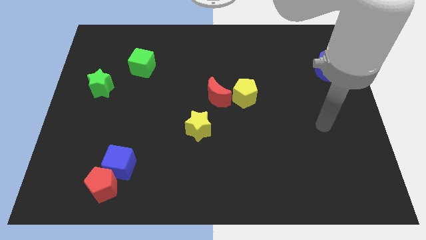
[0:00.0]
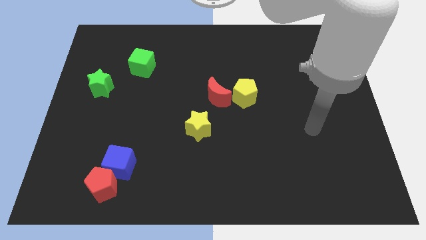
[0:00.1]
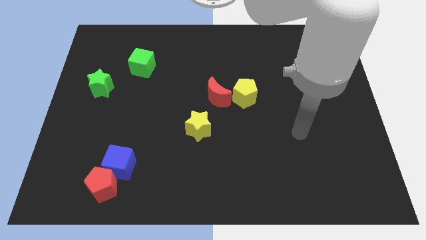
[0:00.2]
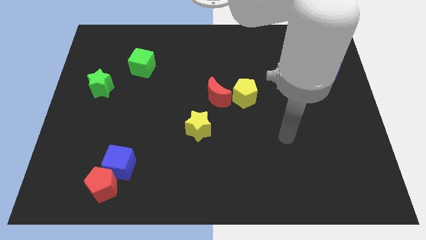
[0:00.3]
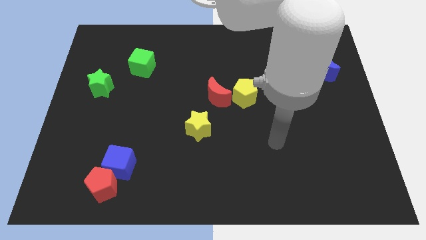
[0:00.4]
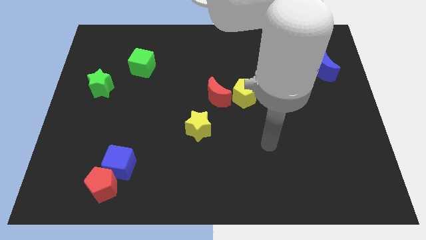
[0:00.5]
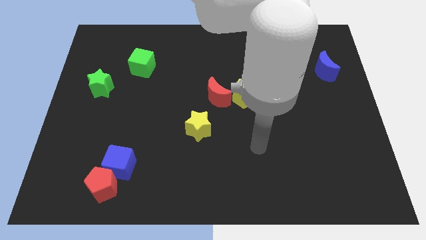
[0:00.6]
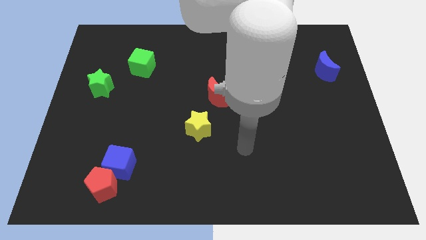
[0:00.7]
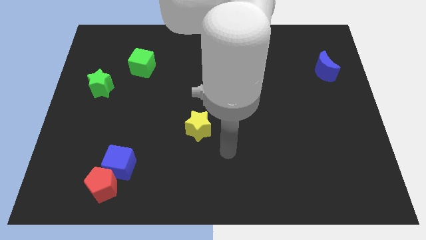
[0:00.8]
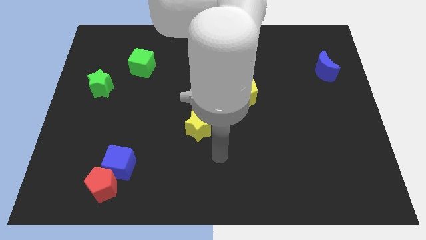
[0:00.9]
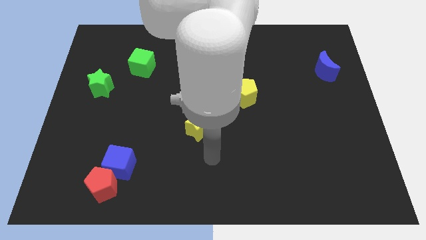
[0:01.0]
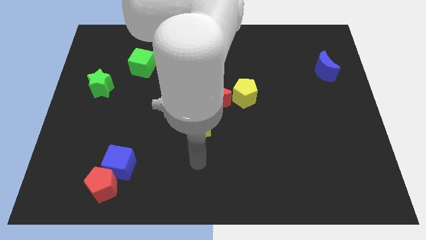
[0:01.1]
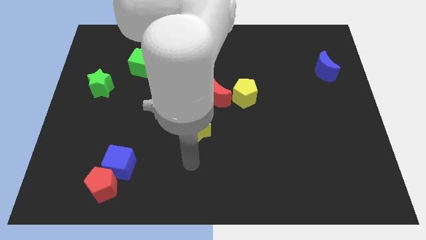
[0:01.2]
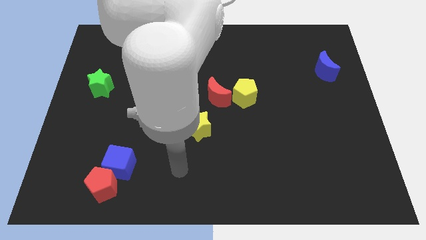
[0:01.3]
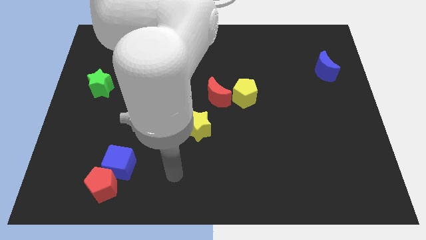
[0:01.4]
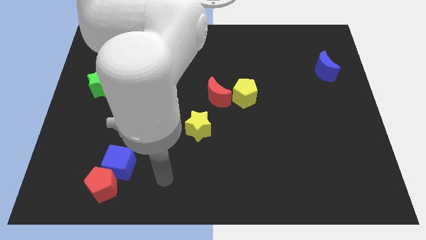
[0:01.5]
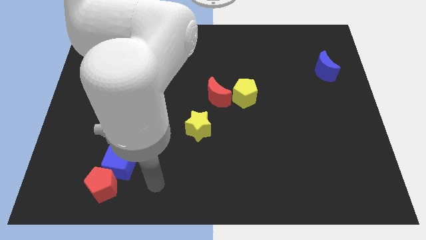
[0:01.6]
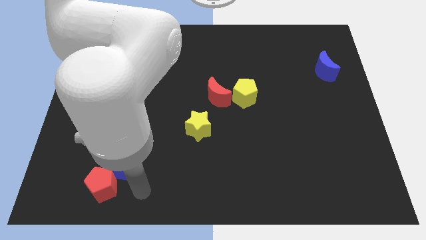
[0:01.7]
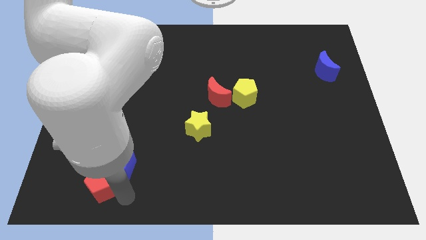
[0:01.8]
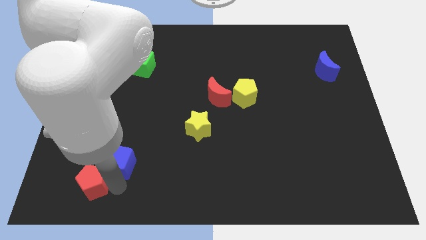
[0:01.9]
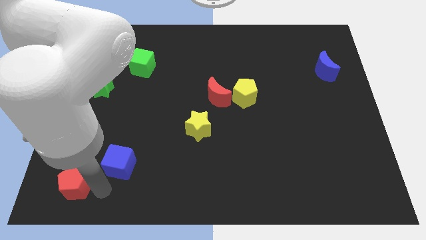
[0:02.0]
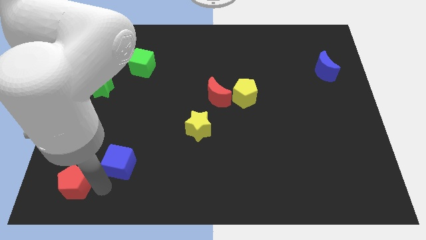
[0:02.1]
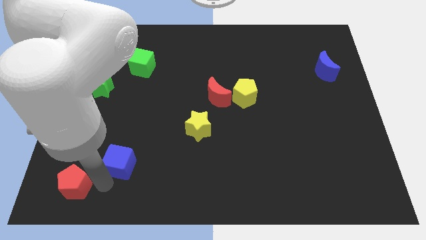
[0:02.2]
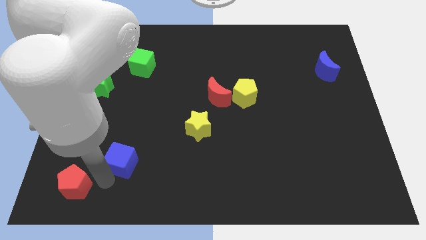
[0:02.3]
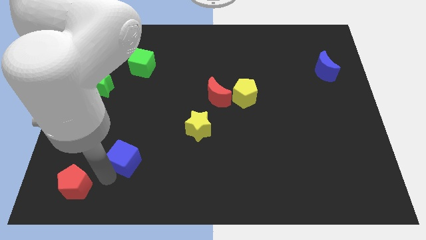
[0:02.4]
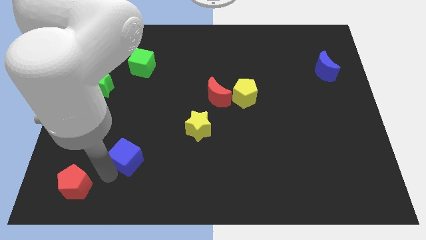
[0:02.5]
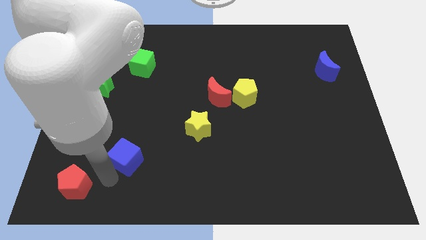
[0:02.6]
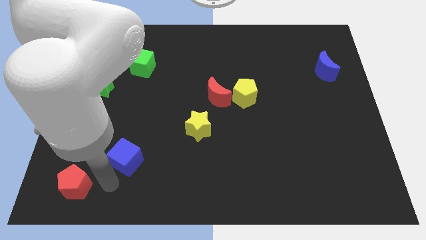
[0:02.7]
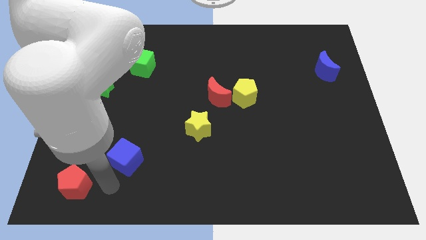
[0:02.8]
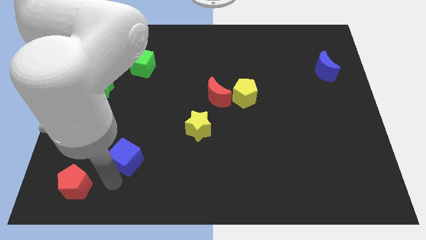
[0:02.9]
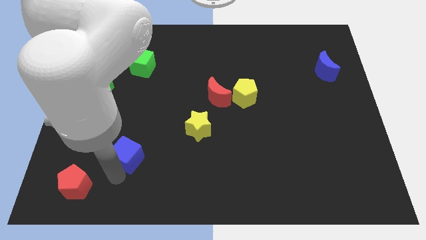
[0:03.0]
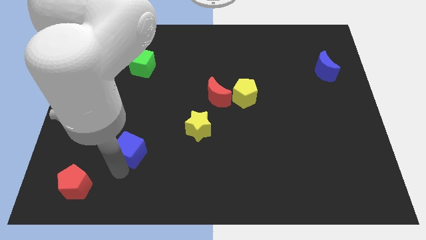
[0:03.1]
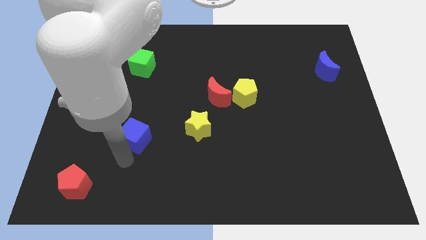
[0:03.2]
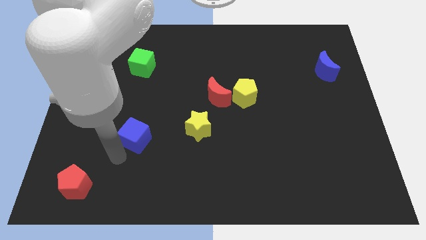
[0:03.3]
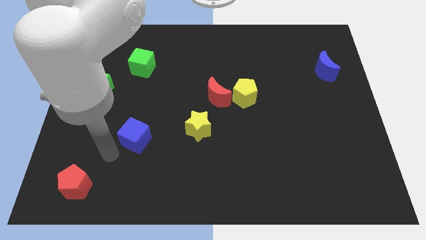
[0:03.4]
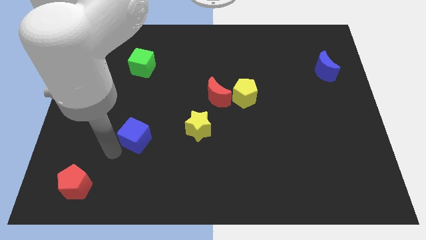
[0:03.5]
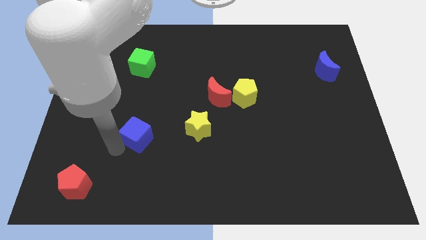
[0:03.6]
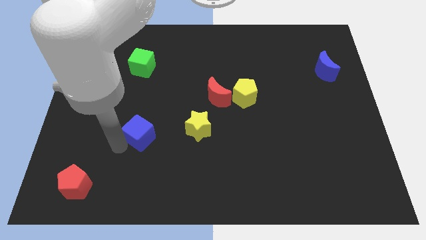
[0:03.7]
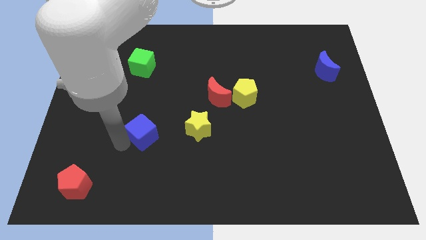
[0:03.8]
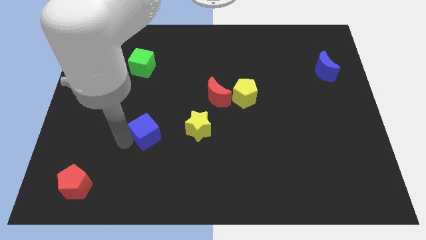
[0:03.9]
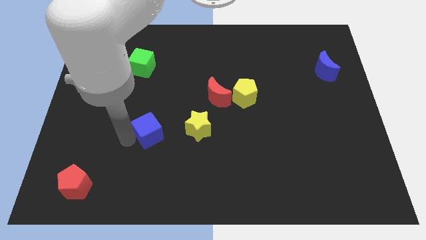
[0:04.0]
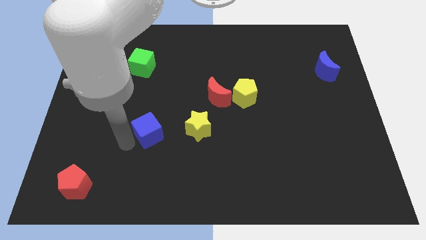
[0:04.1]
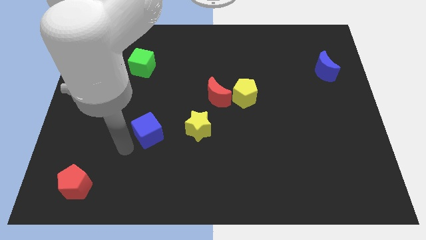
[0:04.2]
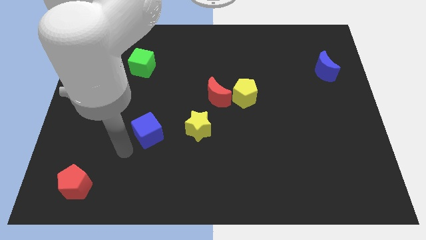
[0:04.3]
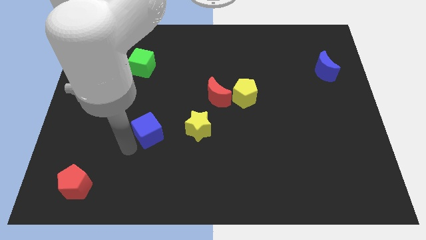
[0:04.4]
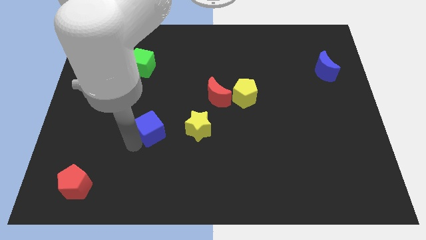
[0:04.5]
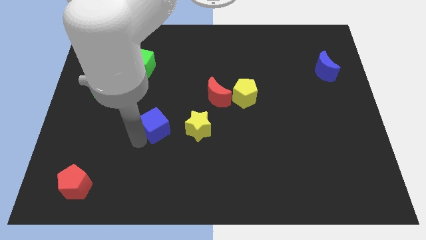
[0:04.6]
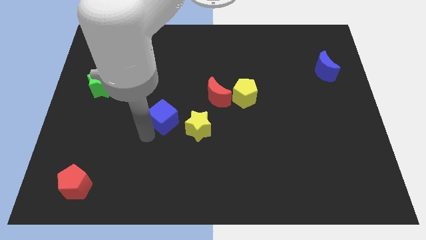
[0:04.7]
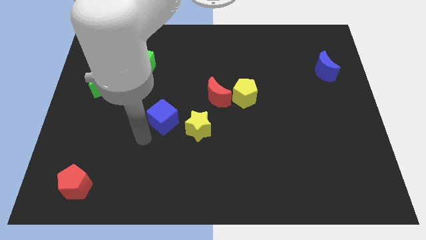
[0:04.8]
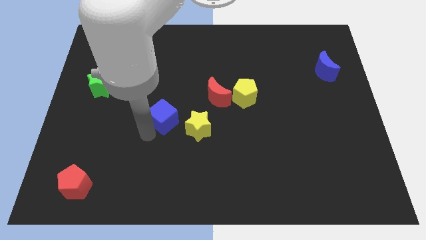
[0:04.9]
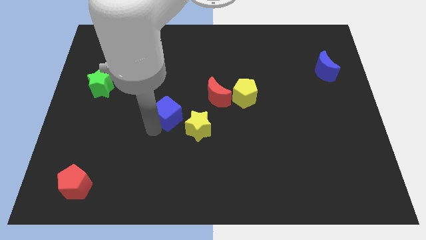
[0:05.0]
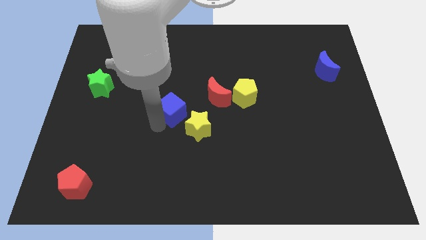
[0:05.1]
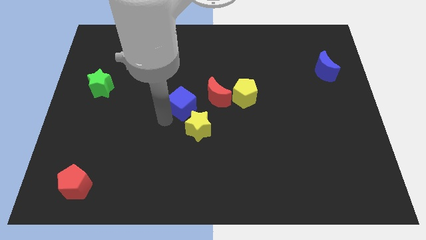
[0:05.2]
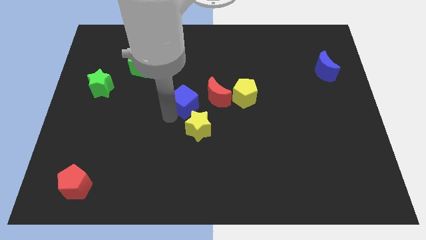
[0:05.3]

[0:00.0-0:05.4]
move the blue cube diagonally upwards and right

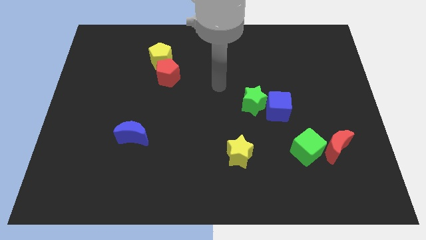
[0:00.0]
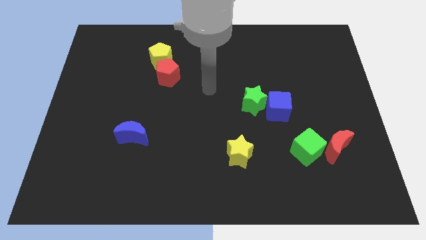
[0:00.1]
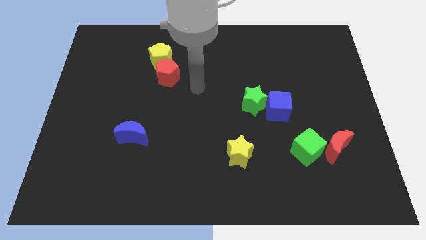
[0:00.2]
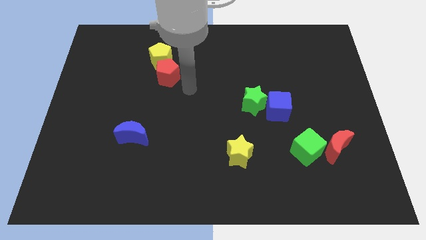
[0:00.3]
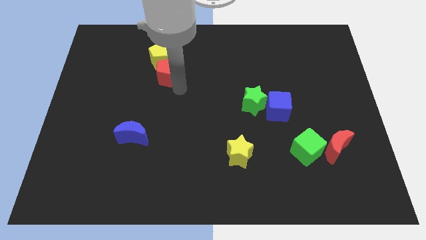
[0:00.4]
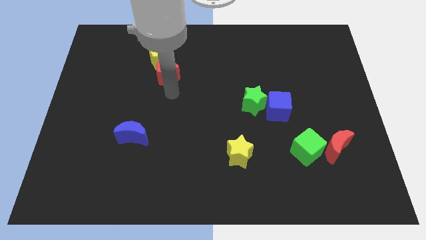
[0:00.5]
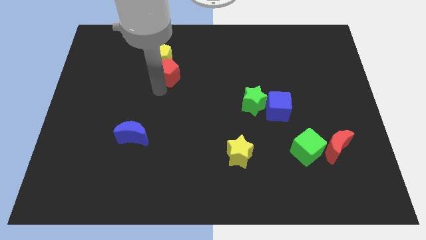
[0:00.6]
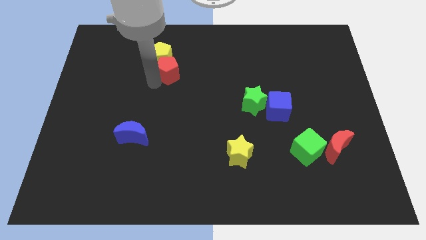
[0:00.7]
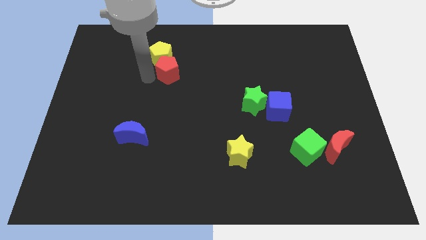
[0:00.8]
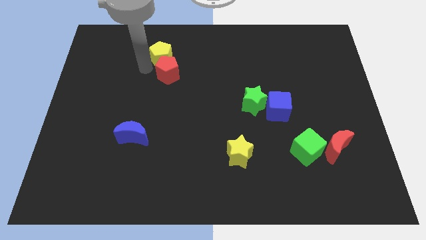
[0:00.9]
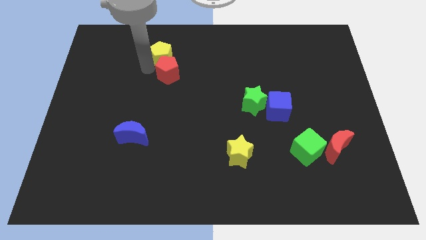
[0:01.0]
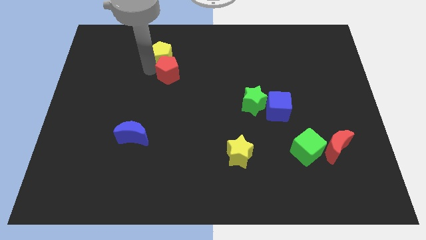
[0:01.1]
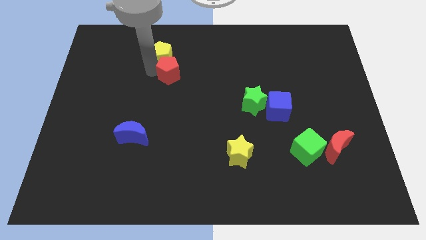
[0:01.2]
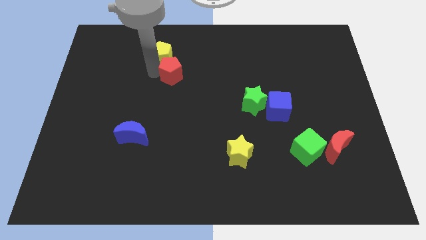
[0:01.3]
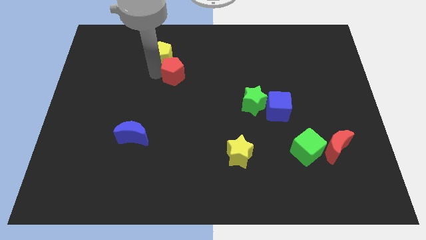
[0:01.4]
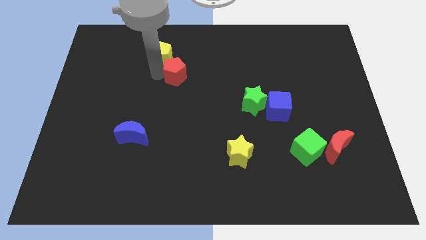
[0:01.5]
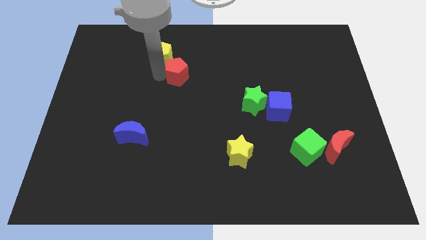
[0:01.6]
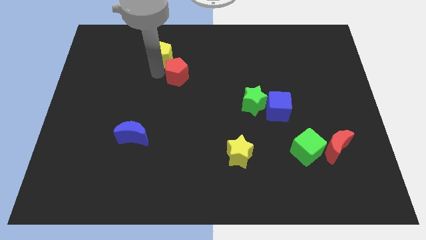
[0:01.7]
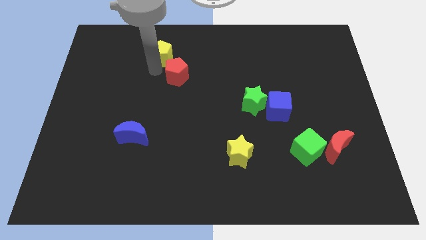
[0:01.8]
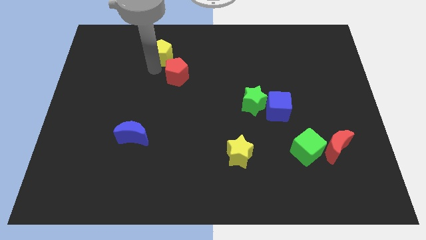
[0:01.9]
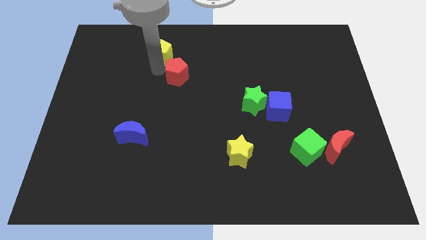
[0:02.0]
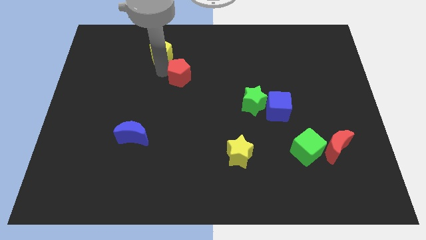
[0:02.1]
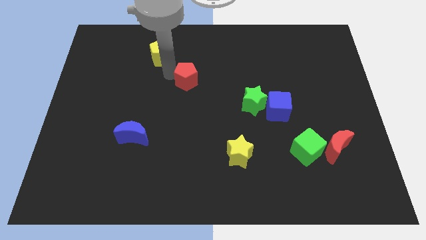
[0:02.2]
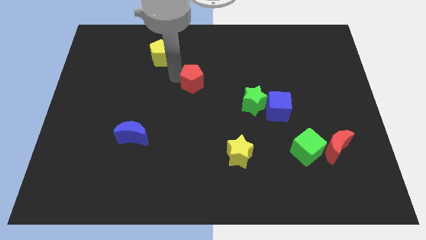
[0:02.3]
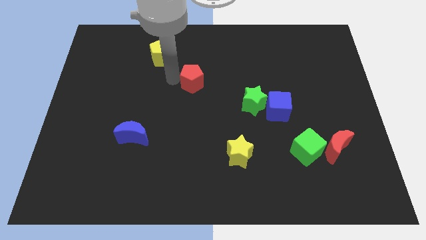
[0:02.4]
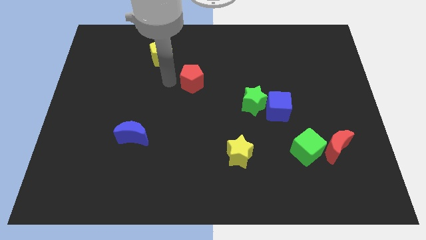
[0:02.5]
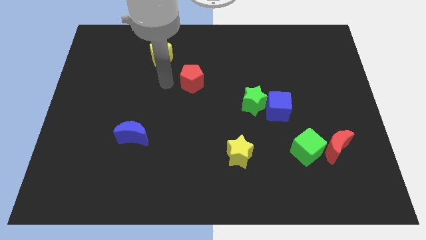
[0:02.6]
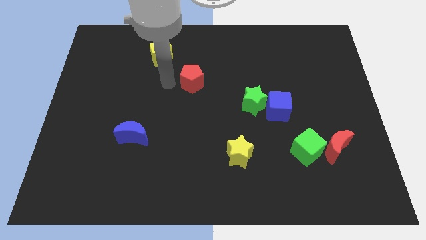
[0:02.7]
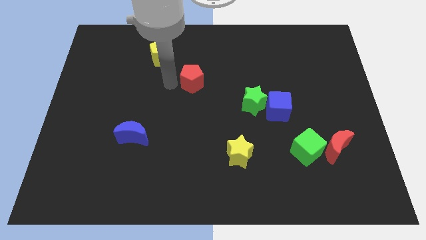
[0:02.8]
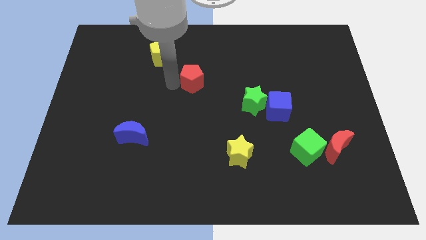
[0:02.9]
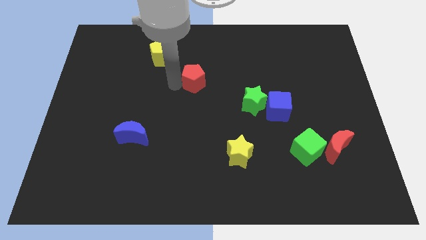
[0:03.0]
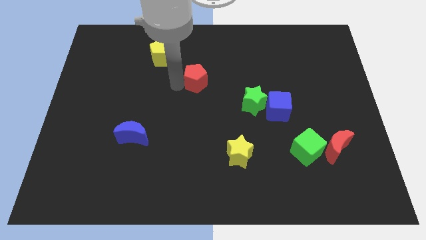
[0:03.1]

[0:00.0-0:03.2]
slightly slide the red pentagon to the right
